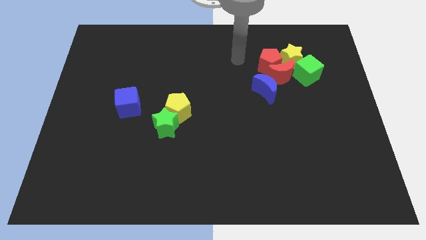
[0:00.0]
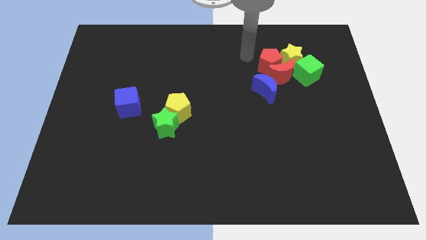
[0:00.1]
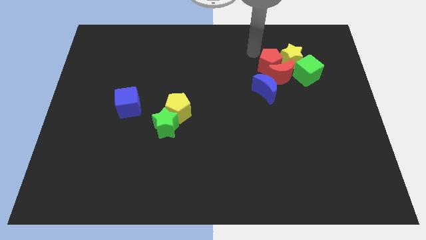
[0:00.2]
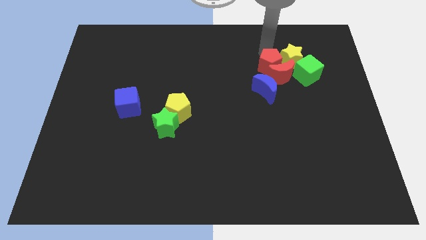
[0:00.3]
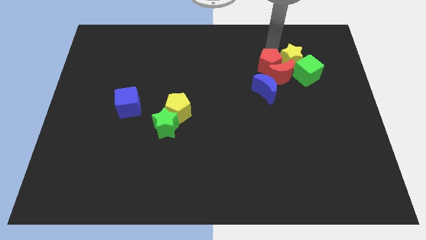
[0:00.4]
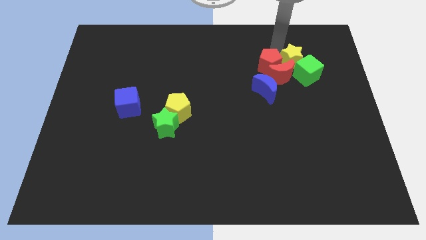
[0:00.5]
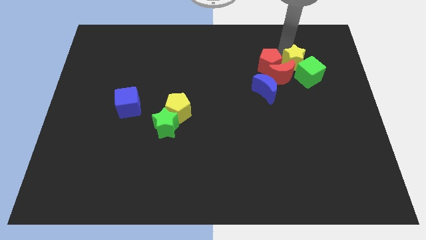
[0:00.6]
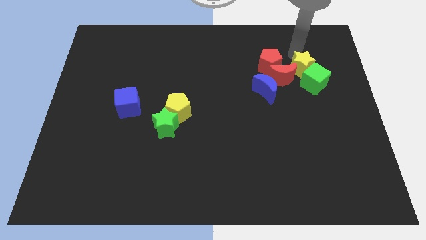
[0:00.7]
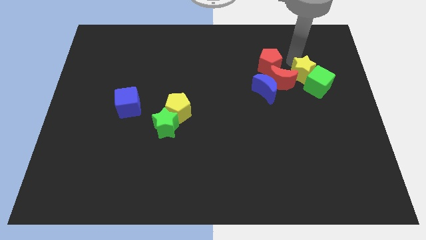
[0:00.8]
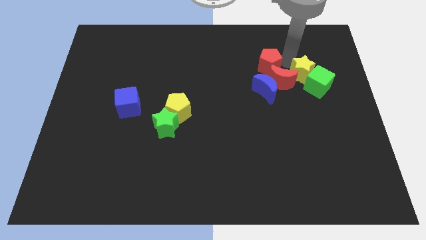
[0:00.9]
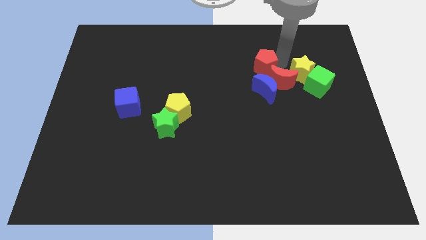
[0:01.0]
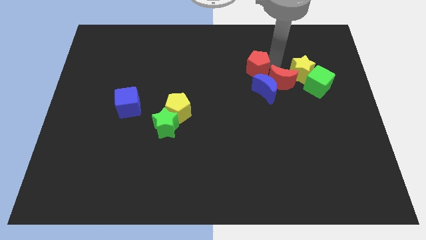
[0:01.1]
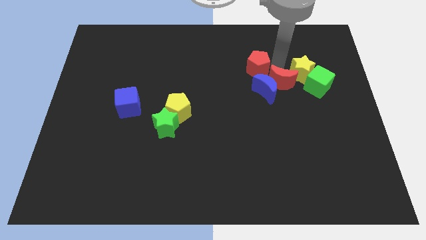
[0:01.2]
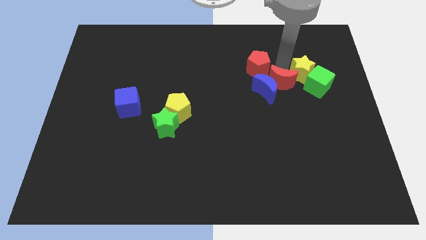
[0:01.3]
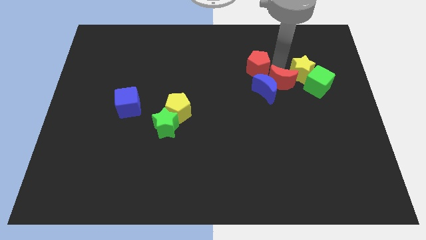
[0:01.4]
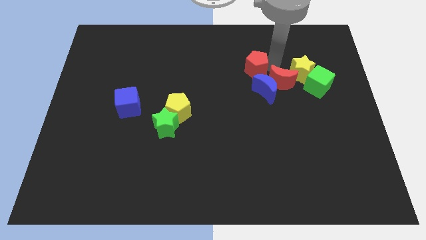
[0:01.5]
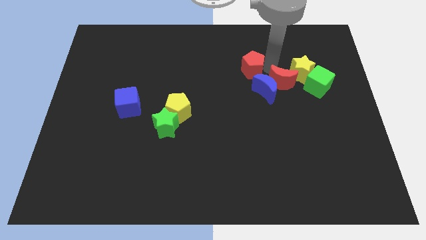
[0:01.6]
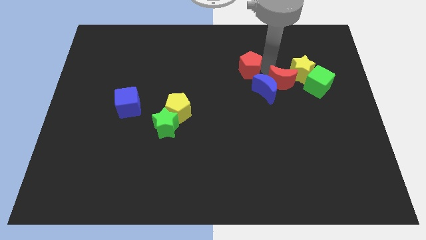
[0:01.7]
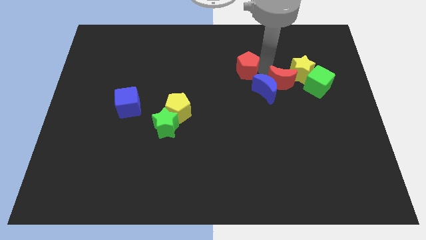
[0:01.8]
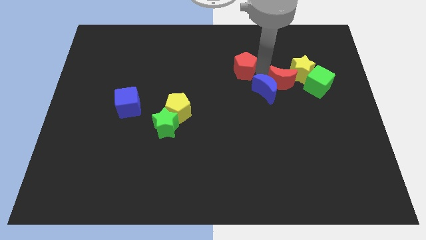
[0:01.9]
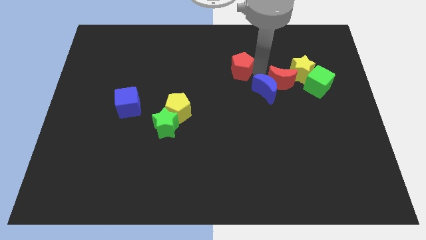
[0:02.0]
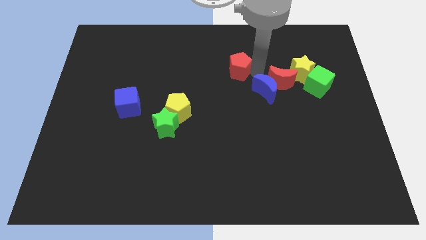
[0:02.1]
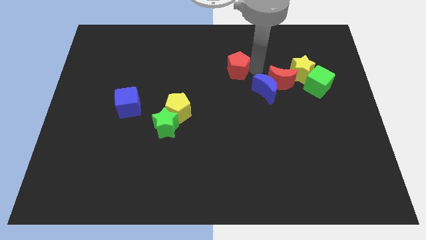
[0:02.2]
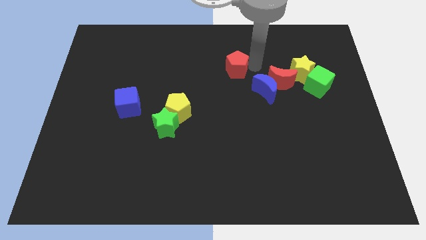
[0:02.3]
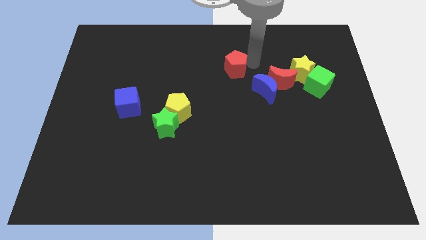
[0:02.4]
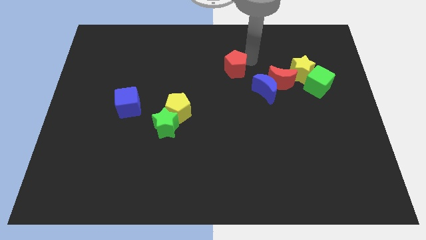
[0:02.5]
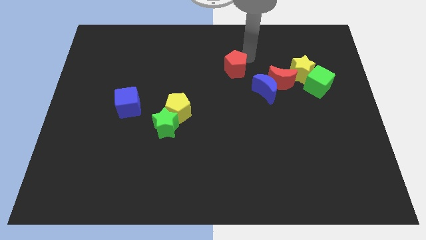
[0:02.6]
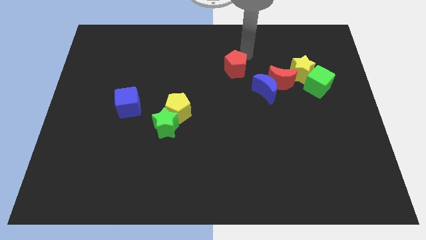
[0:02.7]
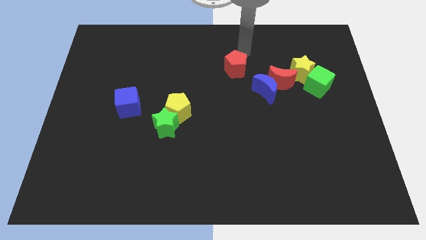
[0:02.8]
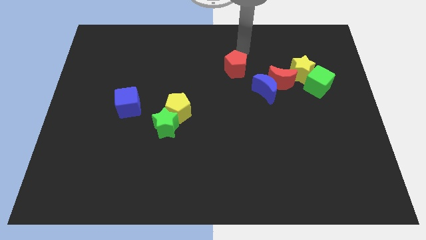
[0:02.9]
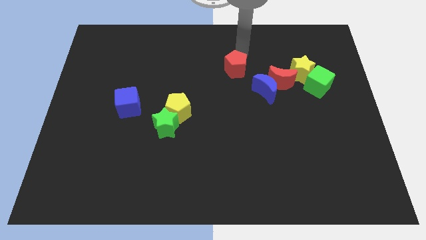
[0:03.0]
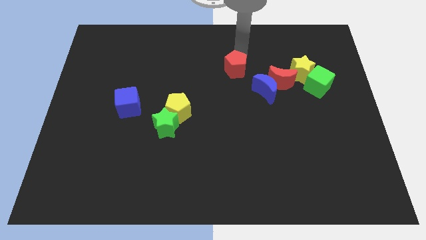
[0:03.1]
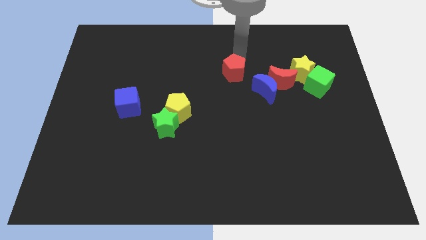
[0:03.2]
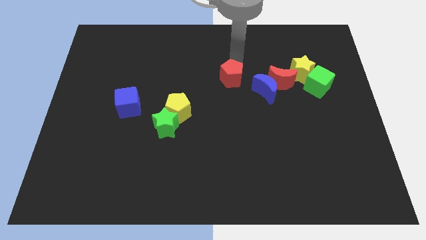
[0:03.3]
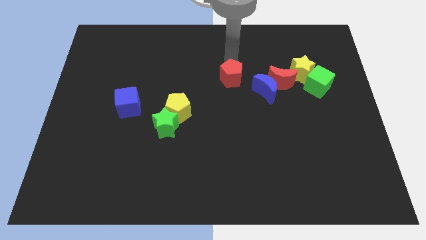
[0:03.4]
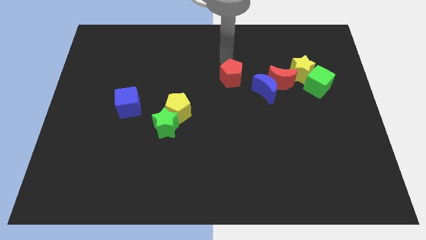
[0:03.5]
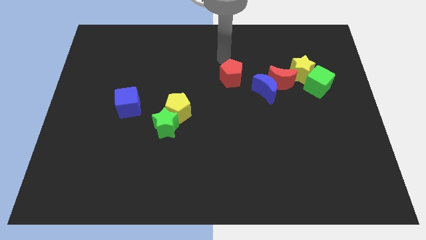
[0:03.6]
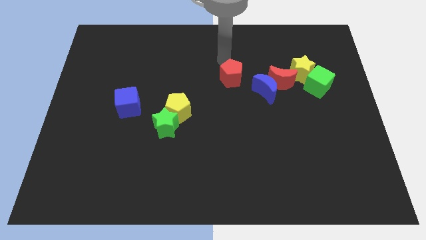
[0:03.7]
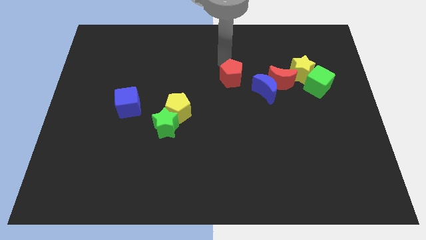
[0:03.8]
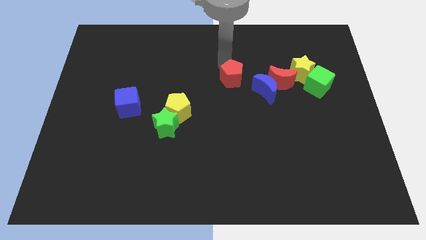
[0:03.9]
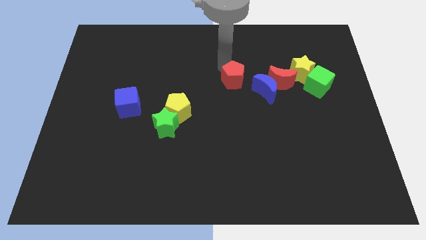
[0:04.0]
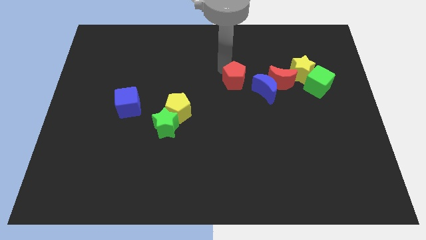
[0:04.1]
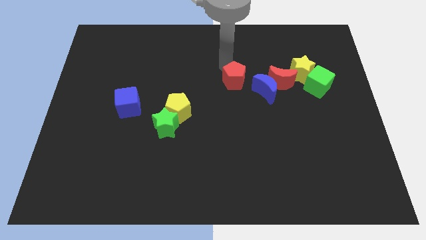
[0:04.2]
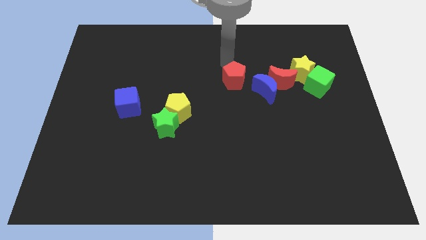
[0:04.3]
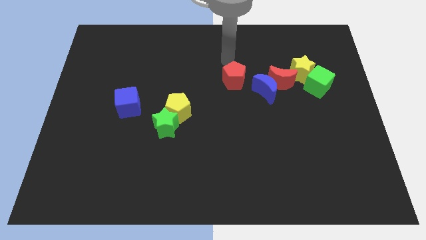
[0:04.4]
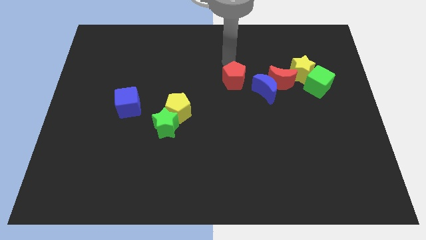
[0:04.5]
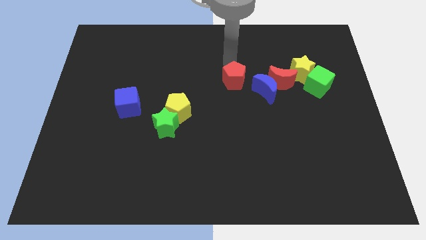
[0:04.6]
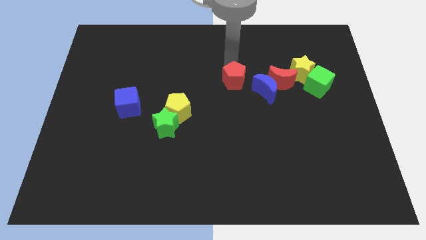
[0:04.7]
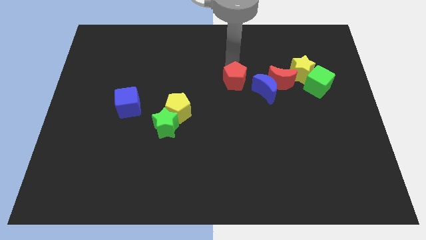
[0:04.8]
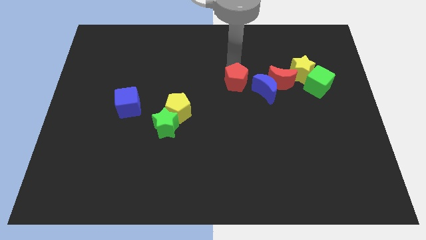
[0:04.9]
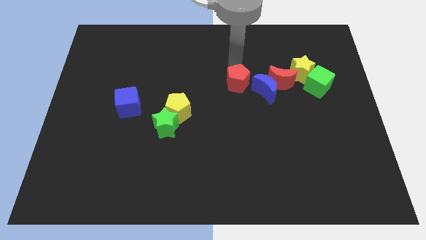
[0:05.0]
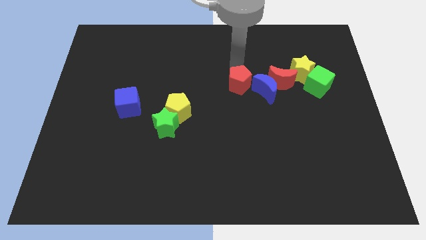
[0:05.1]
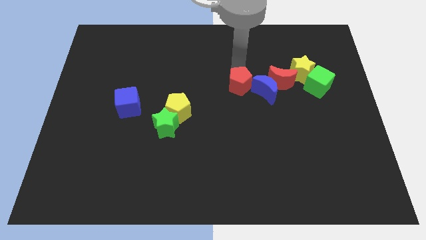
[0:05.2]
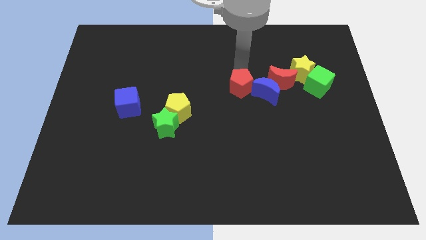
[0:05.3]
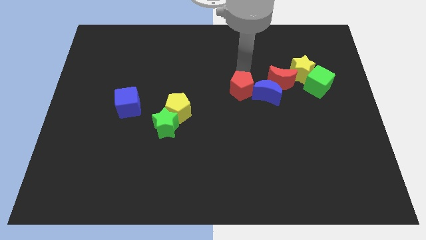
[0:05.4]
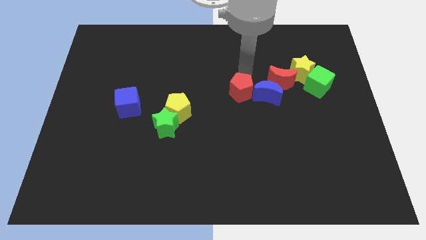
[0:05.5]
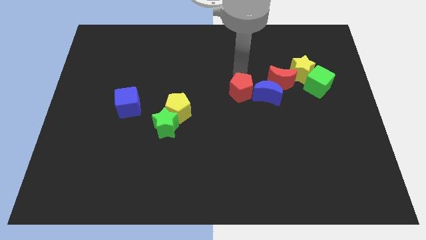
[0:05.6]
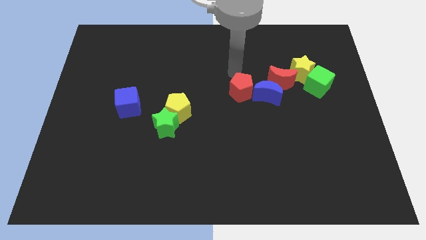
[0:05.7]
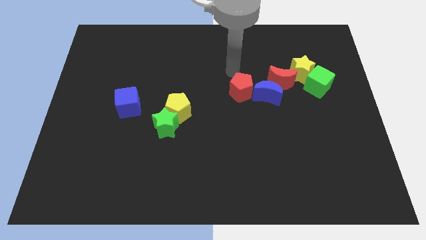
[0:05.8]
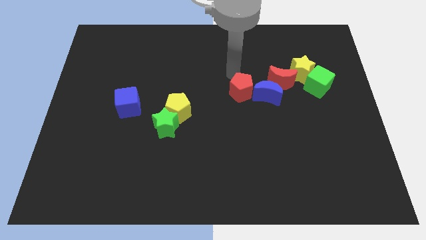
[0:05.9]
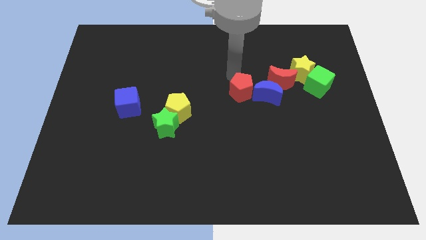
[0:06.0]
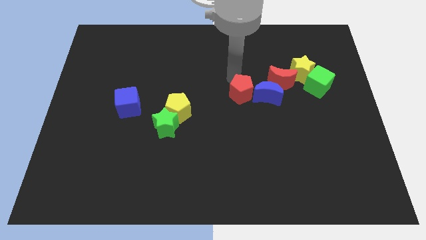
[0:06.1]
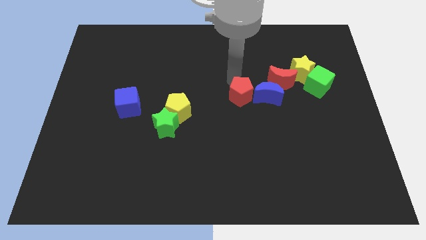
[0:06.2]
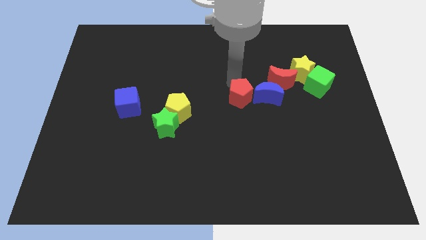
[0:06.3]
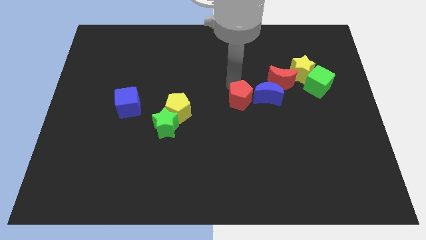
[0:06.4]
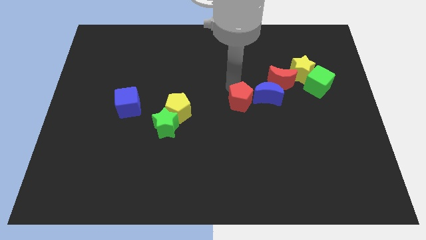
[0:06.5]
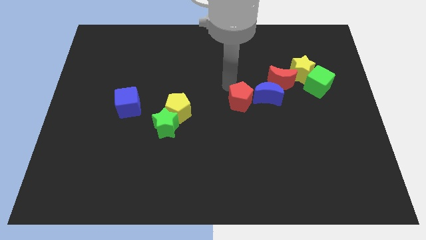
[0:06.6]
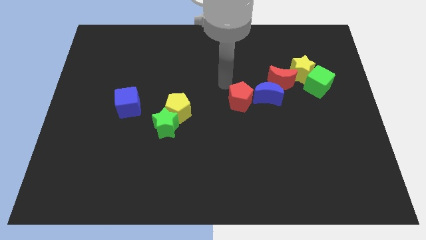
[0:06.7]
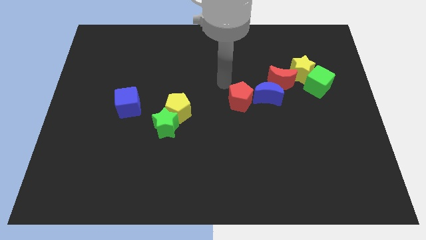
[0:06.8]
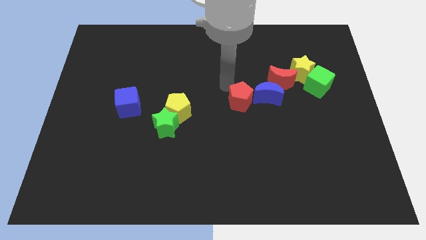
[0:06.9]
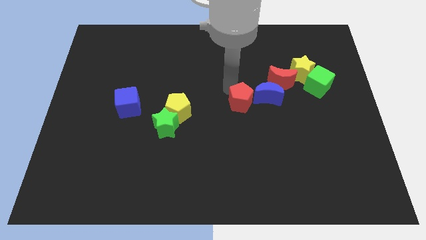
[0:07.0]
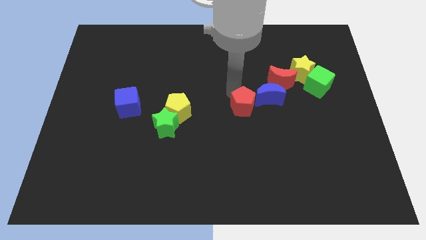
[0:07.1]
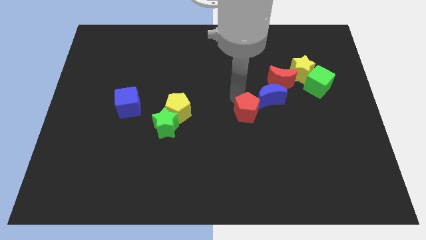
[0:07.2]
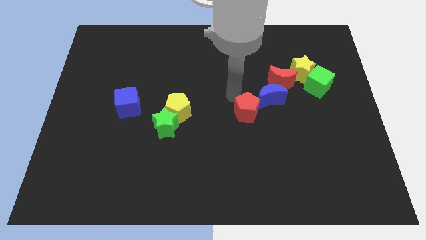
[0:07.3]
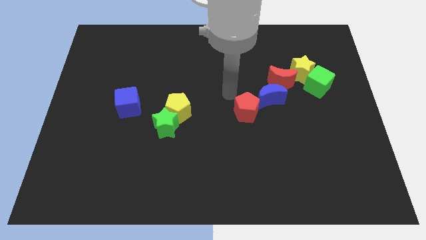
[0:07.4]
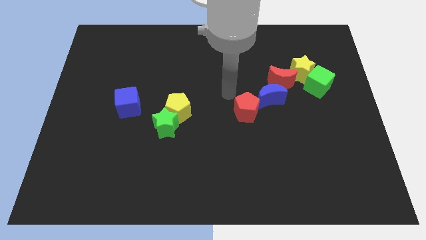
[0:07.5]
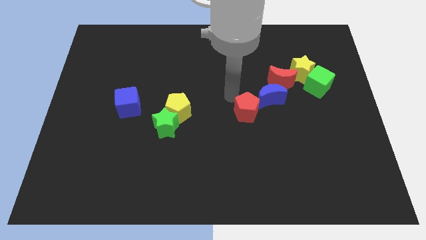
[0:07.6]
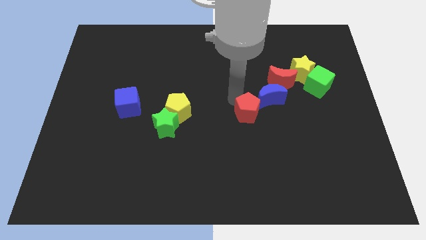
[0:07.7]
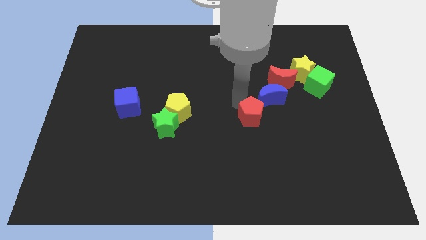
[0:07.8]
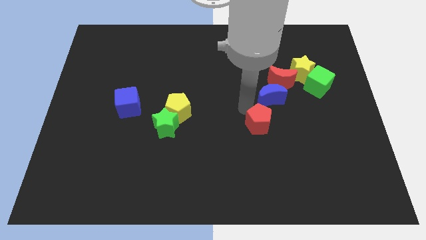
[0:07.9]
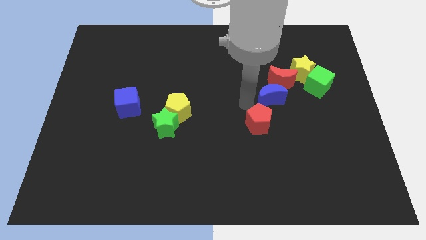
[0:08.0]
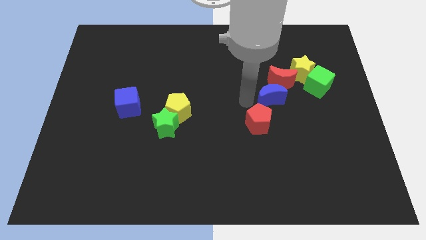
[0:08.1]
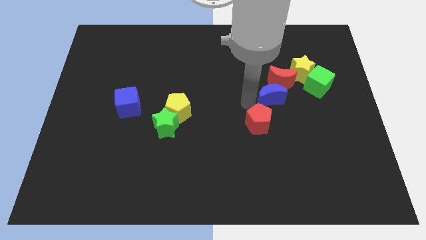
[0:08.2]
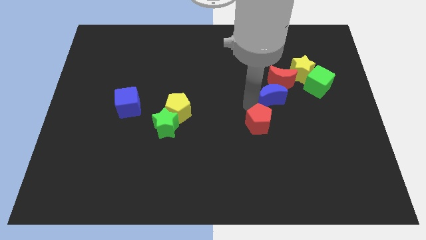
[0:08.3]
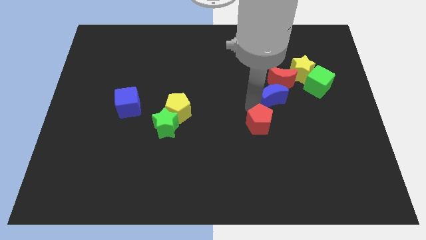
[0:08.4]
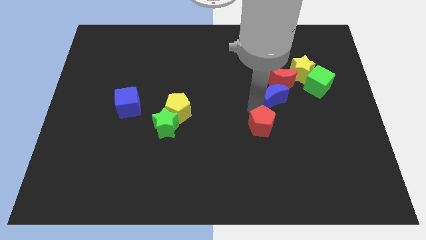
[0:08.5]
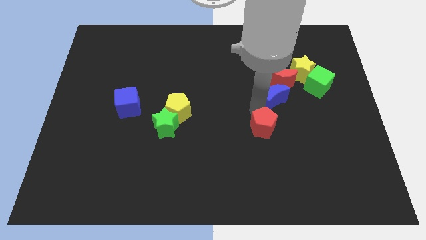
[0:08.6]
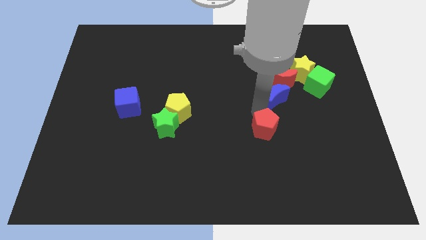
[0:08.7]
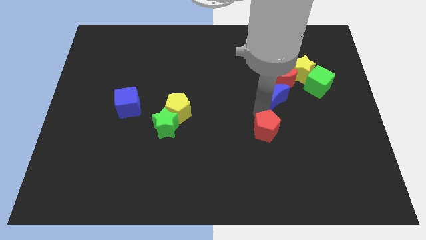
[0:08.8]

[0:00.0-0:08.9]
push the red pentagon down
